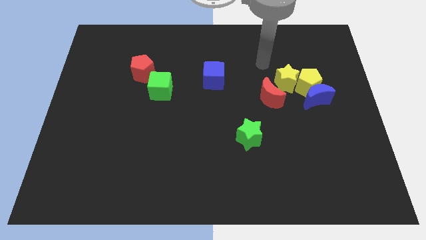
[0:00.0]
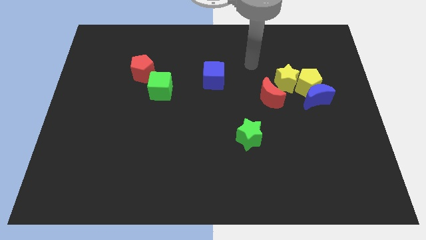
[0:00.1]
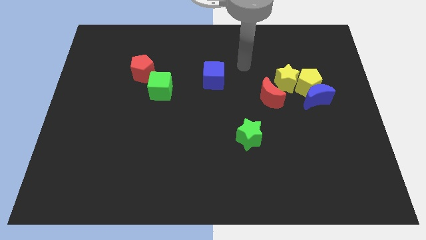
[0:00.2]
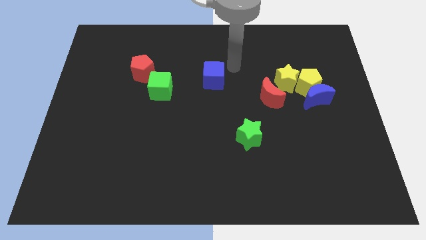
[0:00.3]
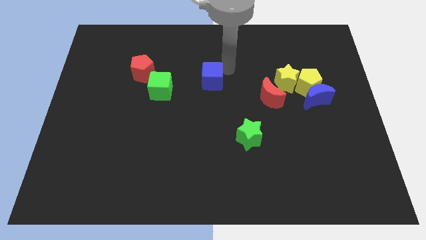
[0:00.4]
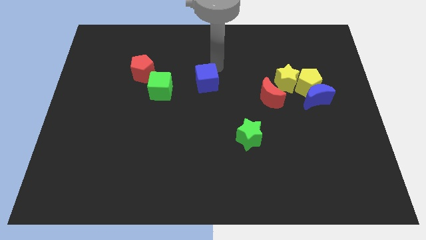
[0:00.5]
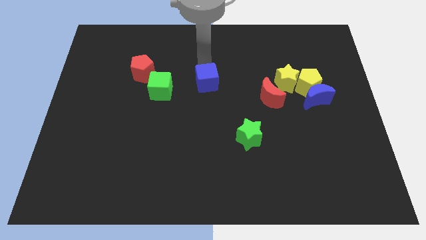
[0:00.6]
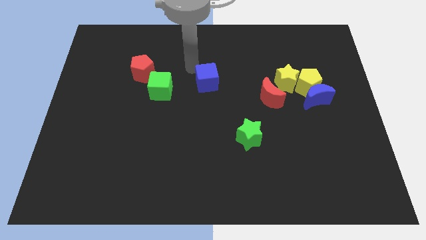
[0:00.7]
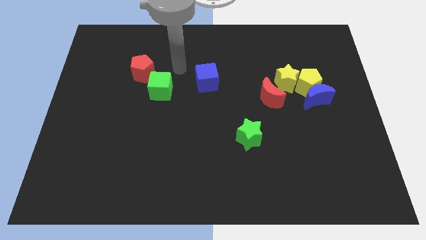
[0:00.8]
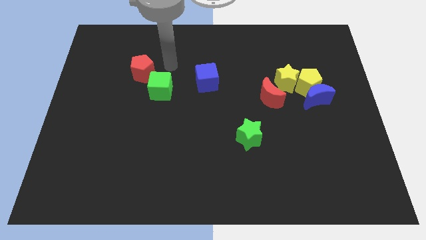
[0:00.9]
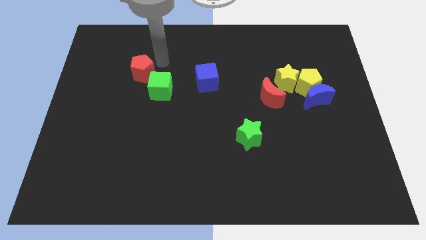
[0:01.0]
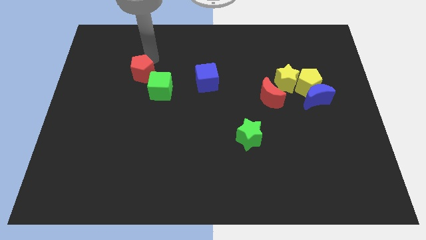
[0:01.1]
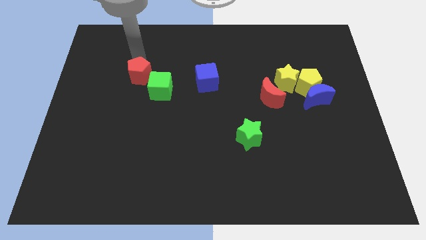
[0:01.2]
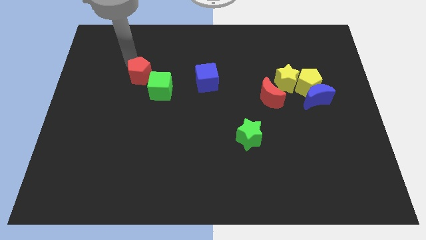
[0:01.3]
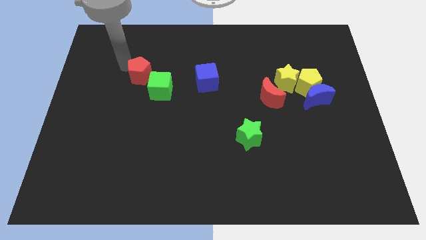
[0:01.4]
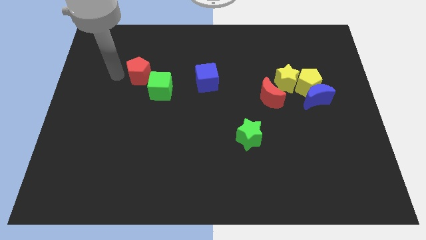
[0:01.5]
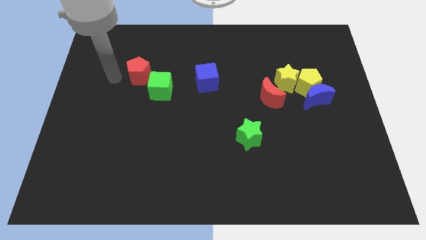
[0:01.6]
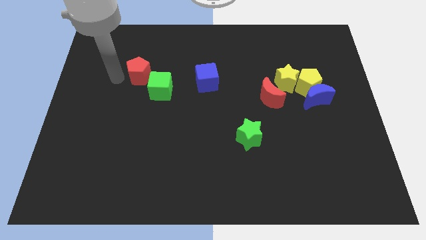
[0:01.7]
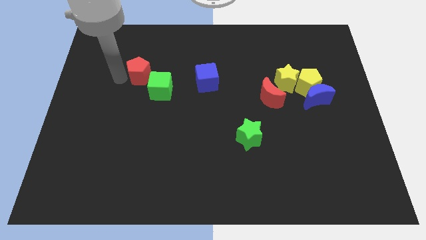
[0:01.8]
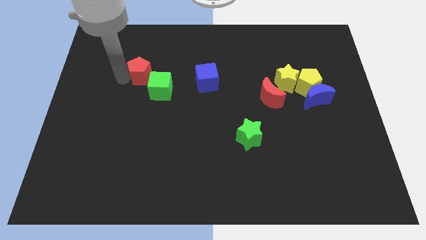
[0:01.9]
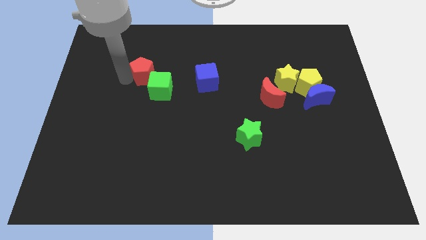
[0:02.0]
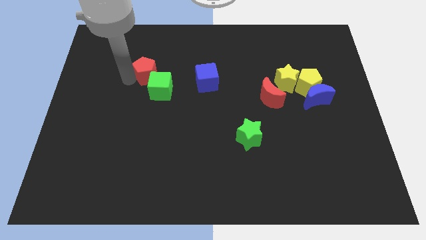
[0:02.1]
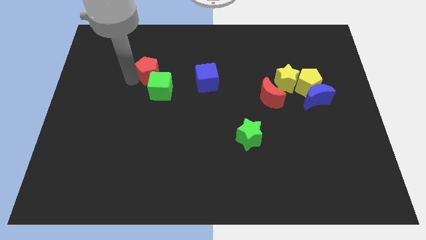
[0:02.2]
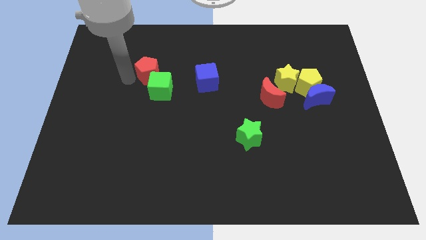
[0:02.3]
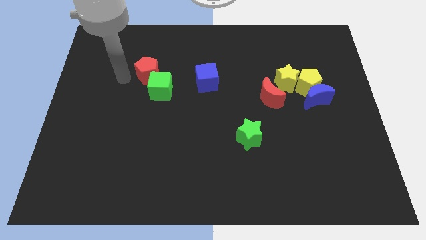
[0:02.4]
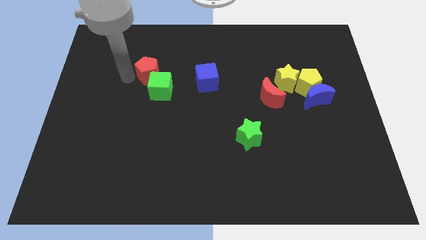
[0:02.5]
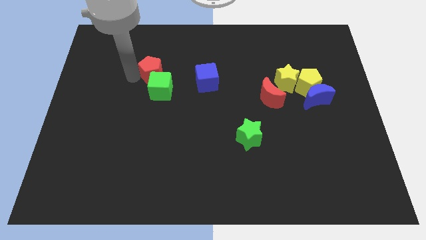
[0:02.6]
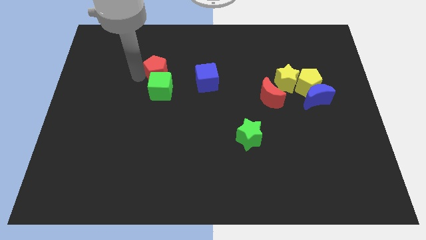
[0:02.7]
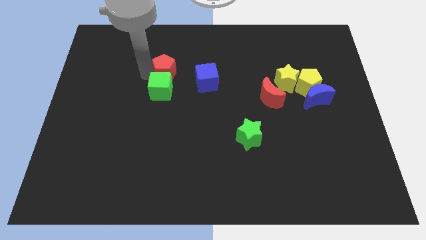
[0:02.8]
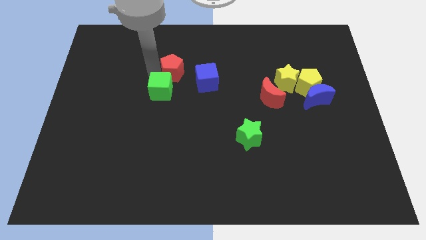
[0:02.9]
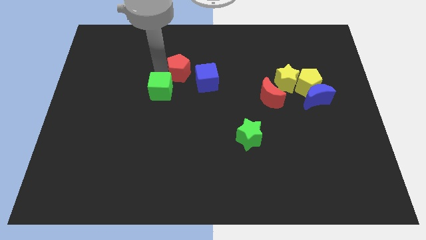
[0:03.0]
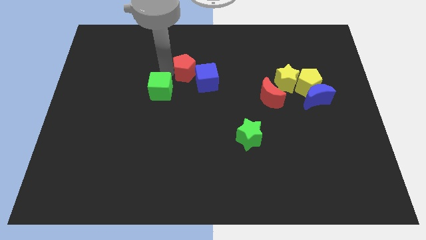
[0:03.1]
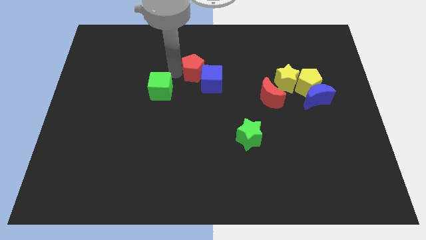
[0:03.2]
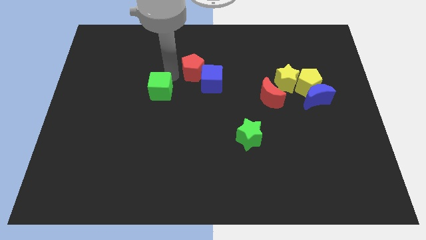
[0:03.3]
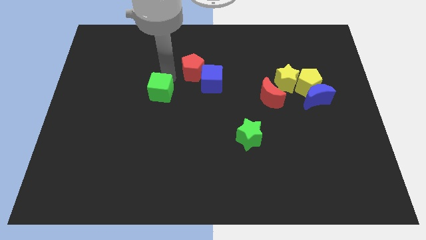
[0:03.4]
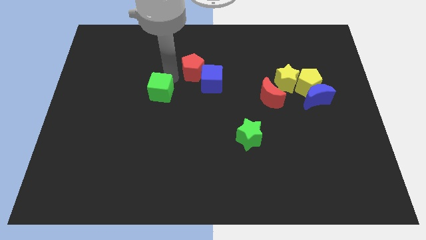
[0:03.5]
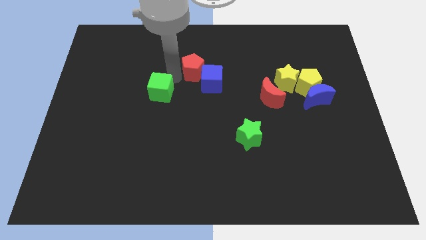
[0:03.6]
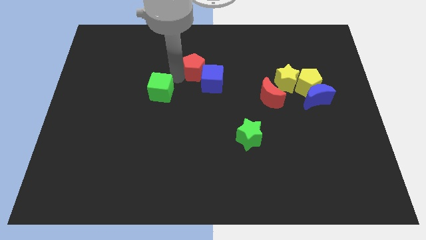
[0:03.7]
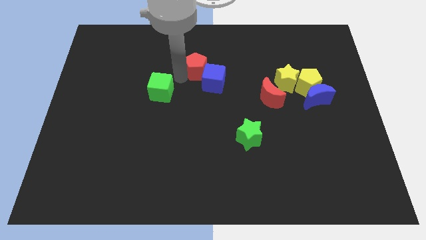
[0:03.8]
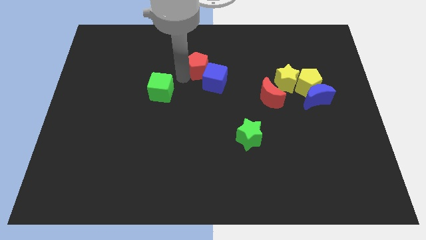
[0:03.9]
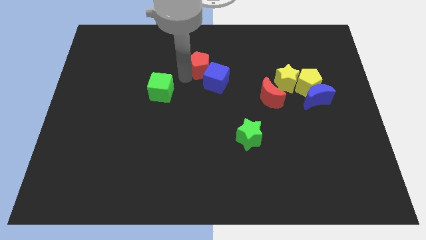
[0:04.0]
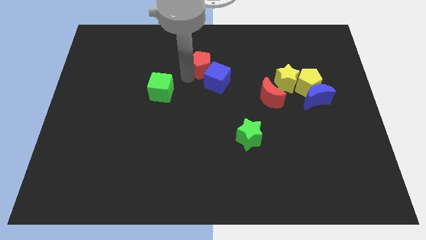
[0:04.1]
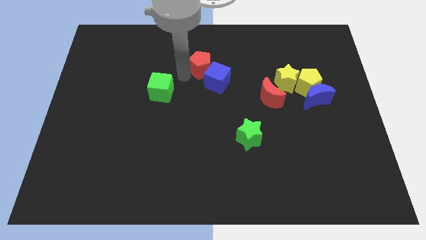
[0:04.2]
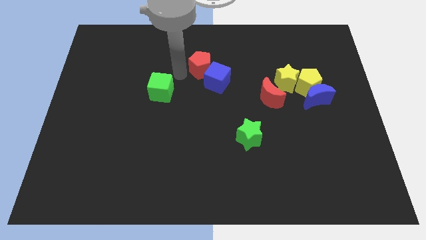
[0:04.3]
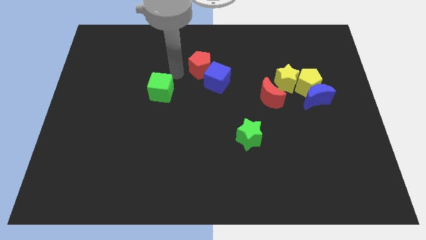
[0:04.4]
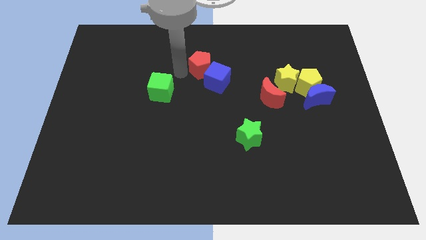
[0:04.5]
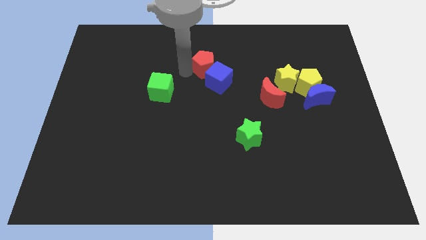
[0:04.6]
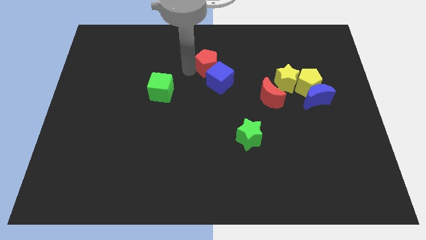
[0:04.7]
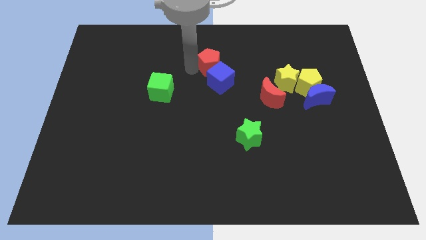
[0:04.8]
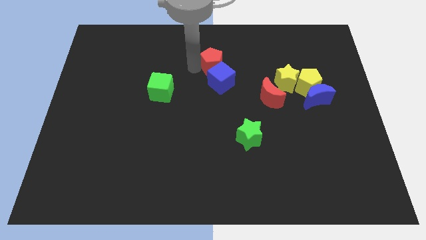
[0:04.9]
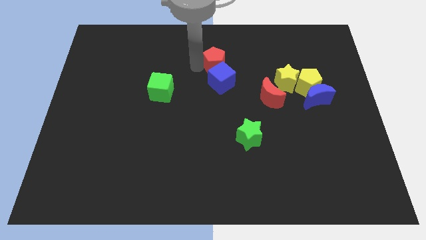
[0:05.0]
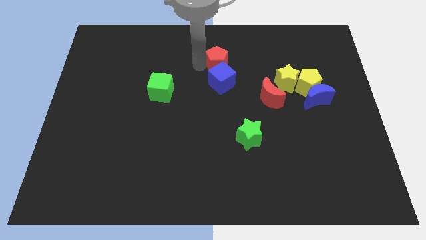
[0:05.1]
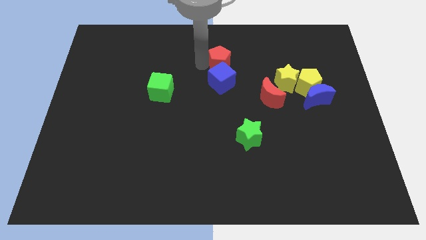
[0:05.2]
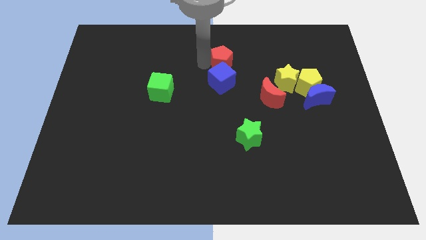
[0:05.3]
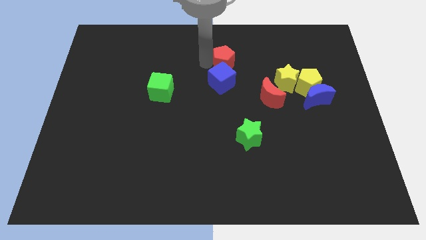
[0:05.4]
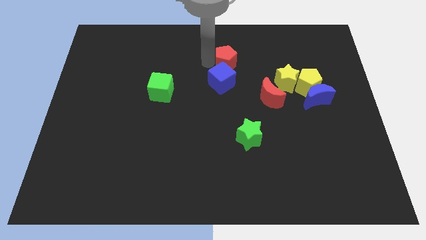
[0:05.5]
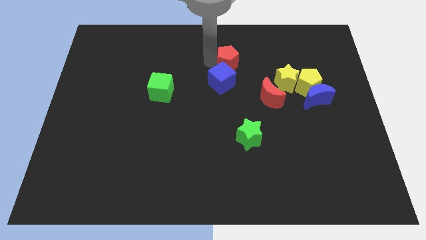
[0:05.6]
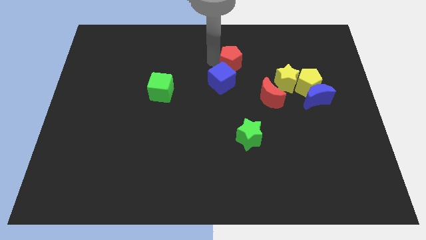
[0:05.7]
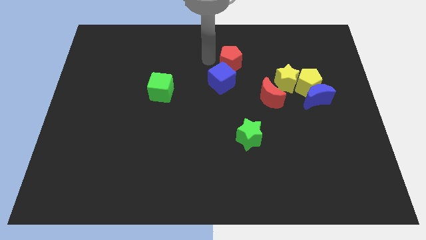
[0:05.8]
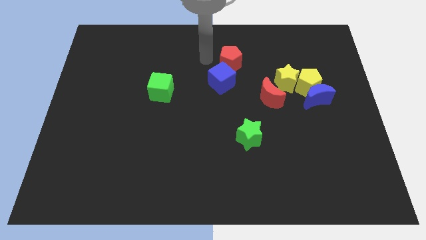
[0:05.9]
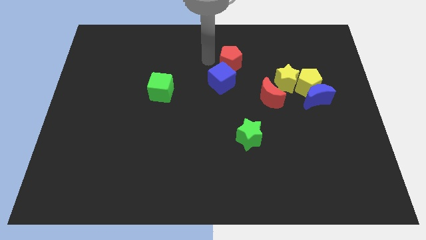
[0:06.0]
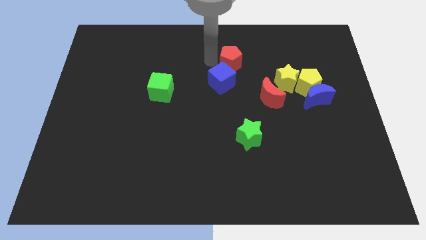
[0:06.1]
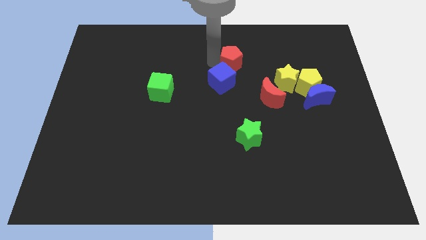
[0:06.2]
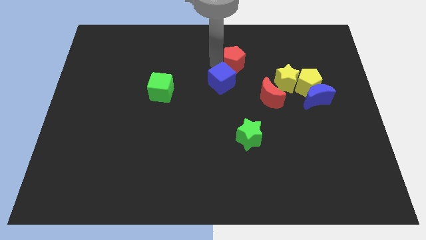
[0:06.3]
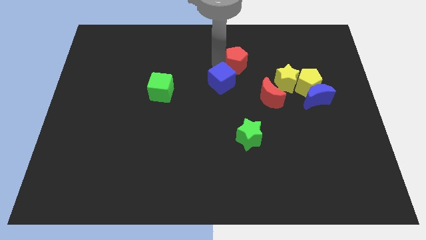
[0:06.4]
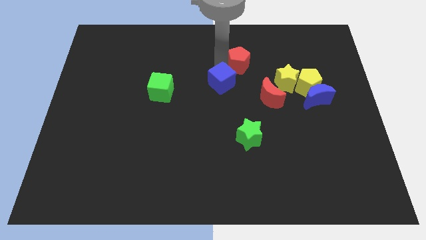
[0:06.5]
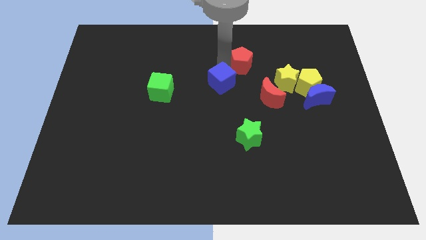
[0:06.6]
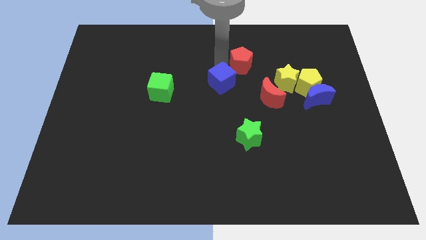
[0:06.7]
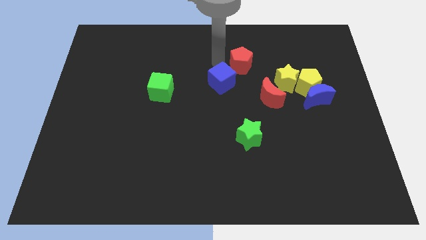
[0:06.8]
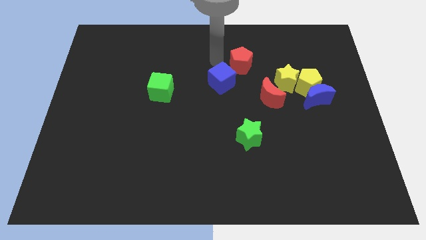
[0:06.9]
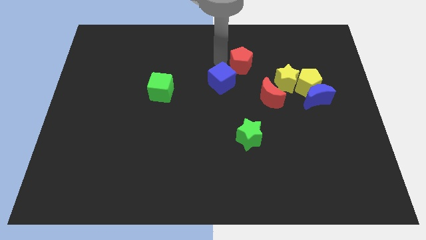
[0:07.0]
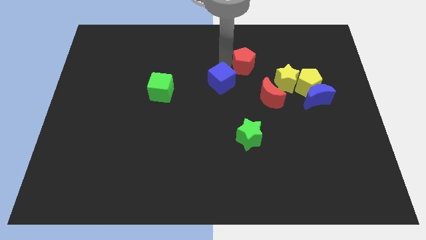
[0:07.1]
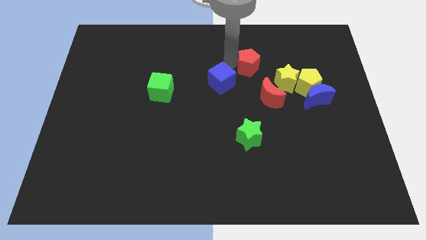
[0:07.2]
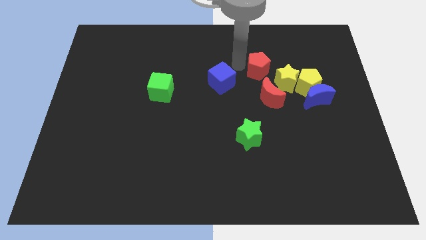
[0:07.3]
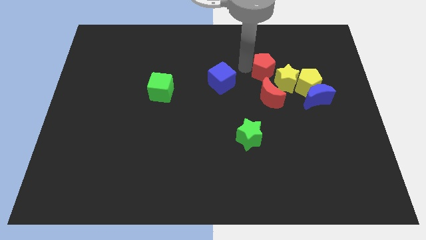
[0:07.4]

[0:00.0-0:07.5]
push the red pentagon diagonally up and to the left of the yellow pentagon
